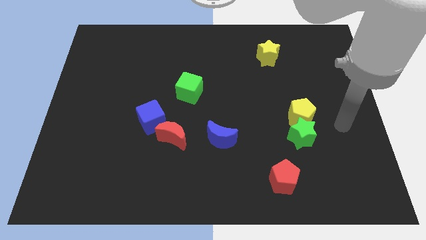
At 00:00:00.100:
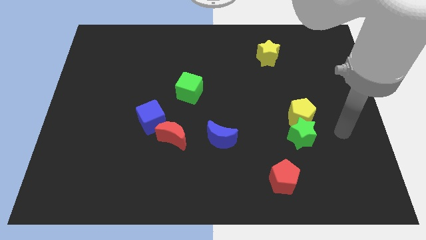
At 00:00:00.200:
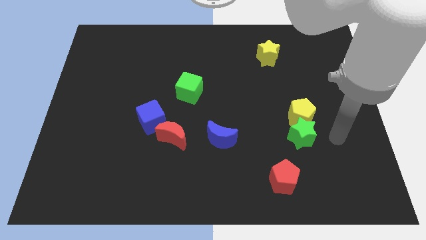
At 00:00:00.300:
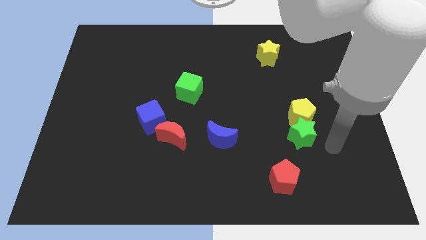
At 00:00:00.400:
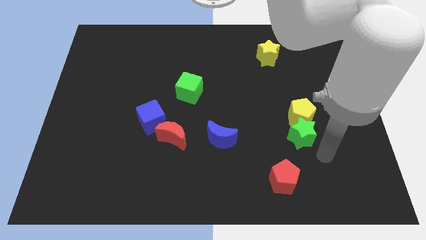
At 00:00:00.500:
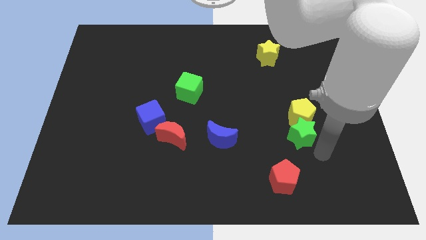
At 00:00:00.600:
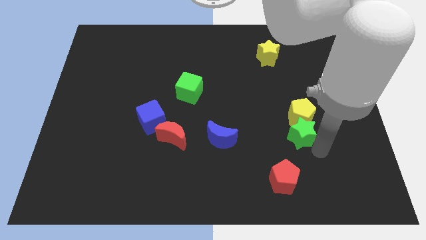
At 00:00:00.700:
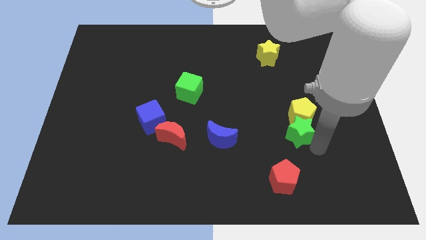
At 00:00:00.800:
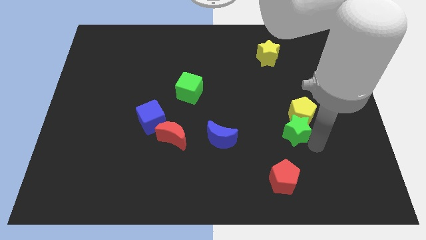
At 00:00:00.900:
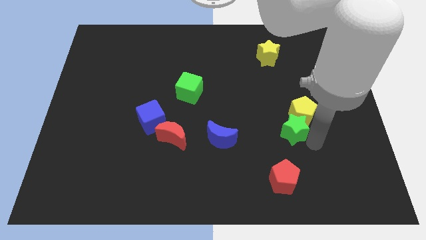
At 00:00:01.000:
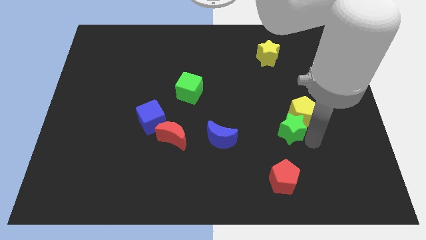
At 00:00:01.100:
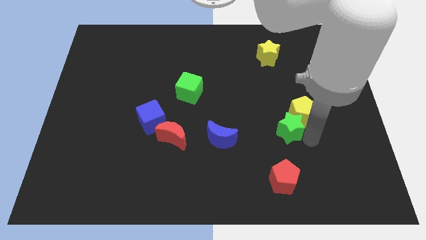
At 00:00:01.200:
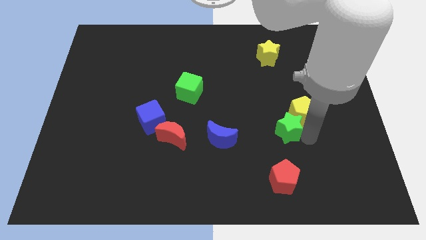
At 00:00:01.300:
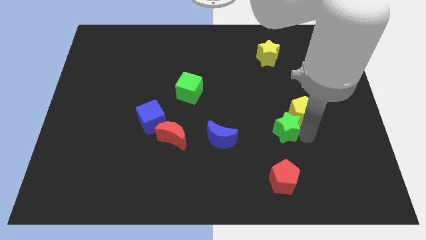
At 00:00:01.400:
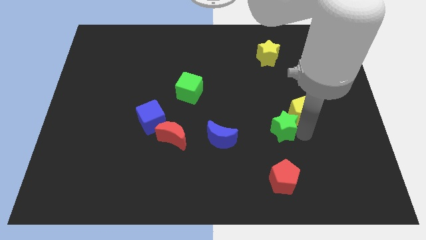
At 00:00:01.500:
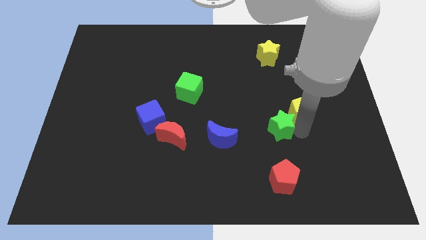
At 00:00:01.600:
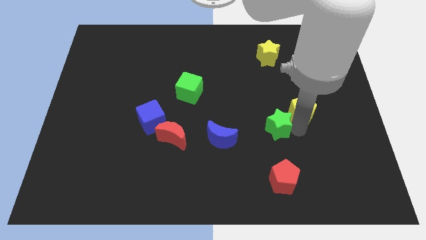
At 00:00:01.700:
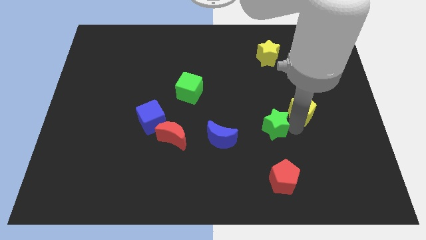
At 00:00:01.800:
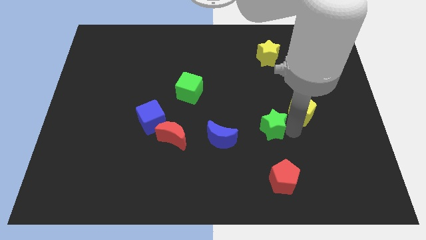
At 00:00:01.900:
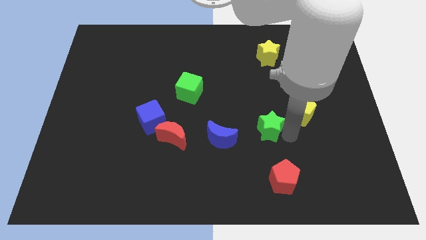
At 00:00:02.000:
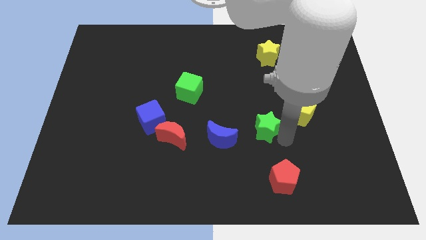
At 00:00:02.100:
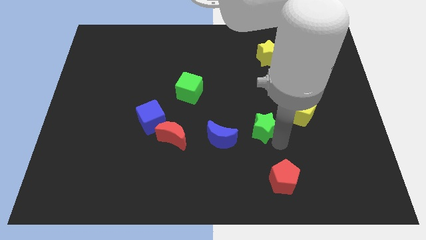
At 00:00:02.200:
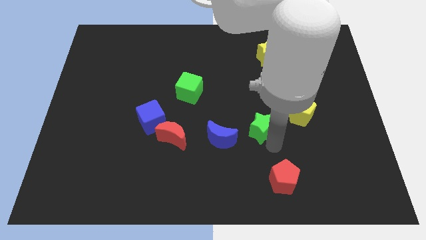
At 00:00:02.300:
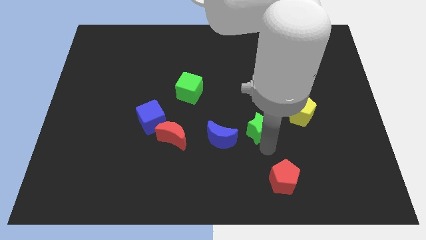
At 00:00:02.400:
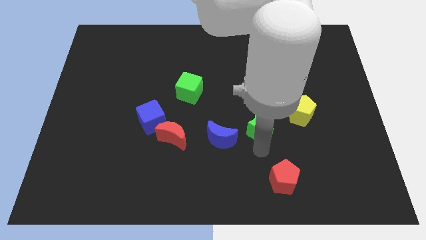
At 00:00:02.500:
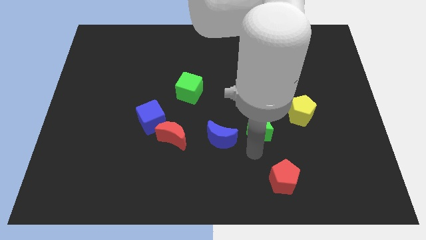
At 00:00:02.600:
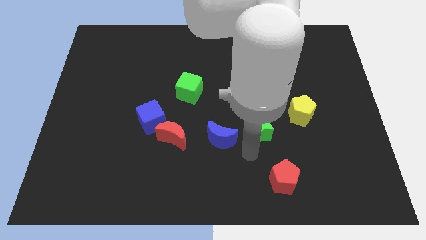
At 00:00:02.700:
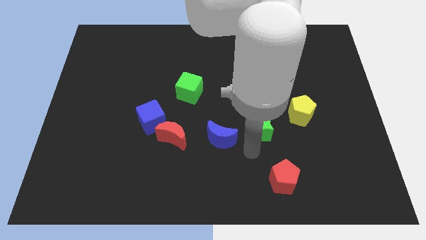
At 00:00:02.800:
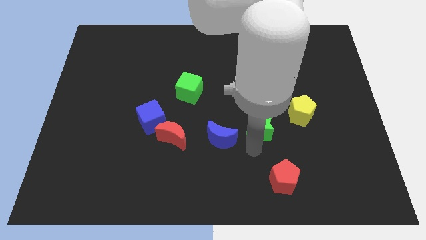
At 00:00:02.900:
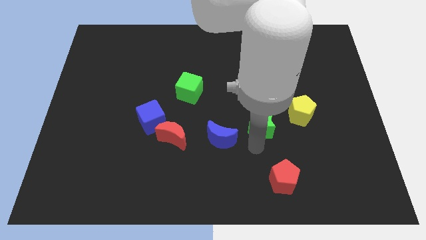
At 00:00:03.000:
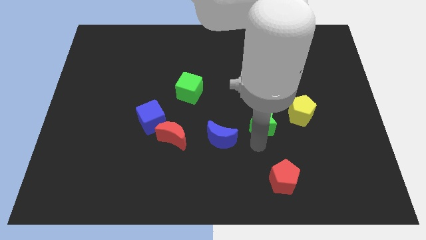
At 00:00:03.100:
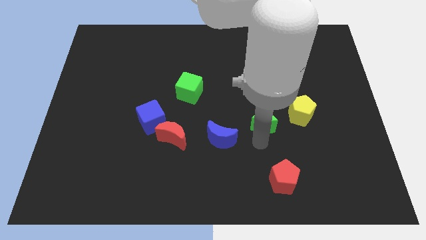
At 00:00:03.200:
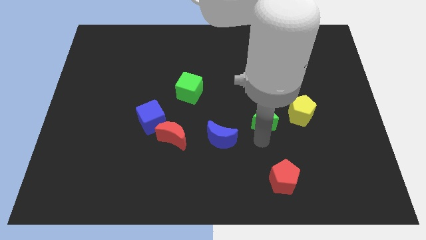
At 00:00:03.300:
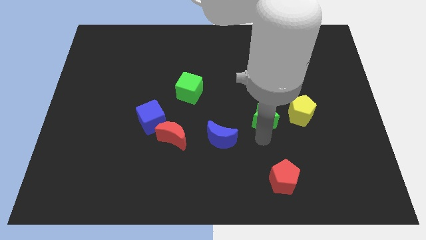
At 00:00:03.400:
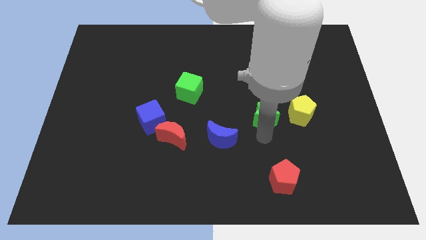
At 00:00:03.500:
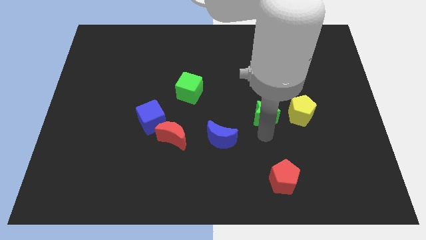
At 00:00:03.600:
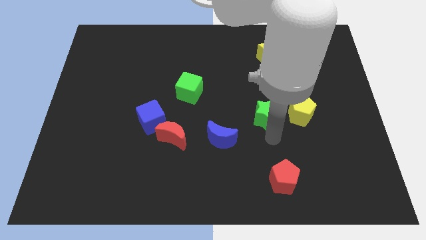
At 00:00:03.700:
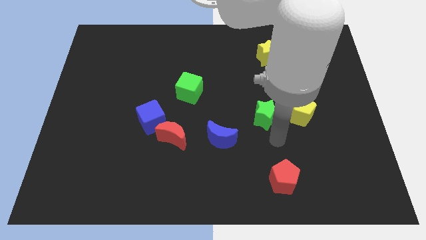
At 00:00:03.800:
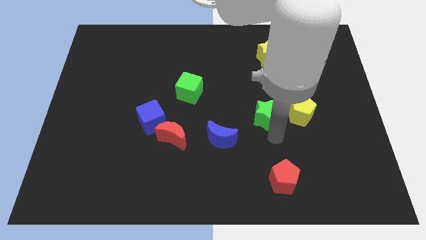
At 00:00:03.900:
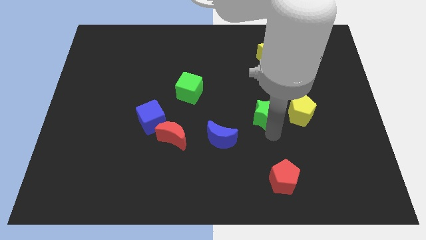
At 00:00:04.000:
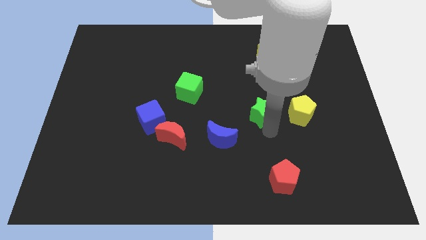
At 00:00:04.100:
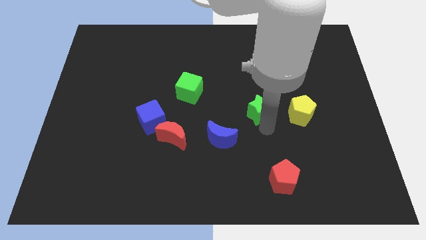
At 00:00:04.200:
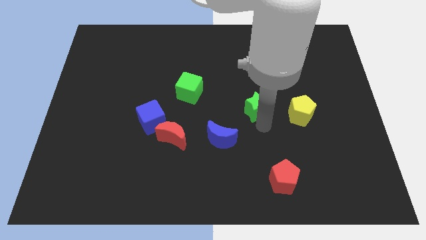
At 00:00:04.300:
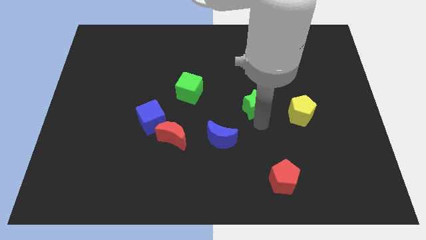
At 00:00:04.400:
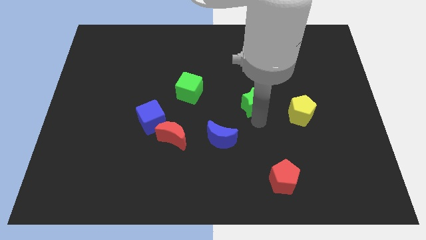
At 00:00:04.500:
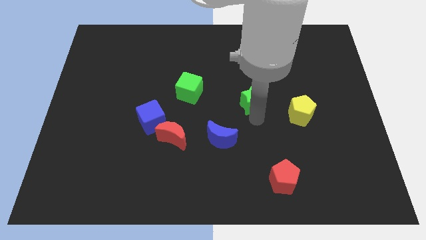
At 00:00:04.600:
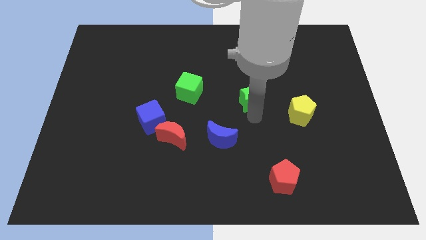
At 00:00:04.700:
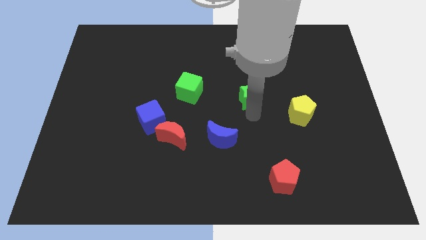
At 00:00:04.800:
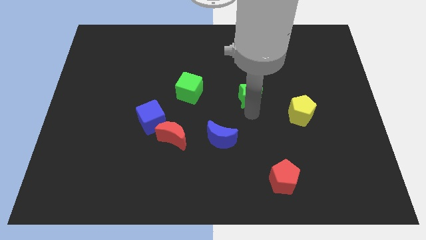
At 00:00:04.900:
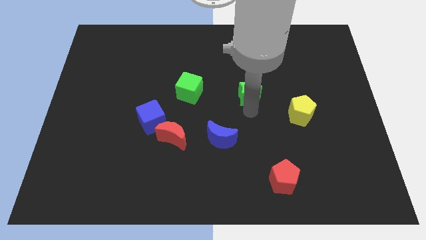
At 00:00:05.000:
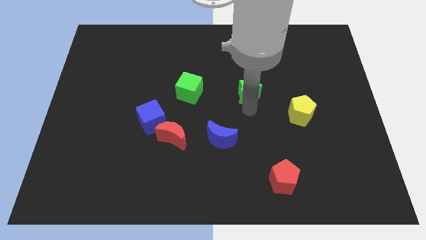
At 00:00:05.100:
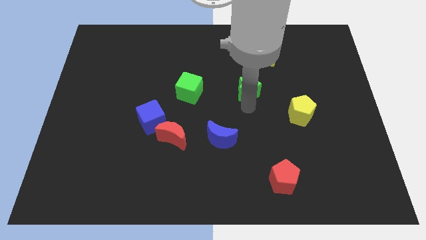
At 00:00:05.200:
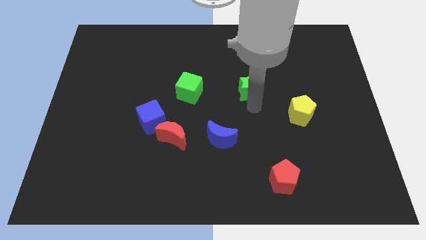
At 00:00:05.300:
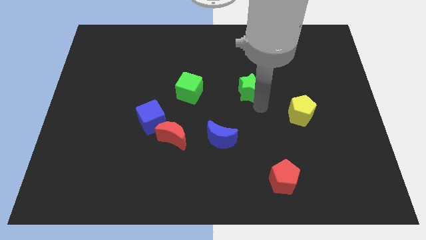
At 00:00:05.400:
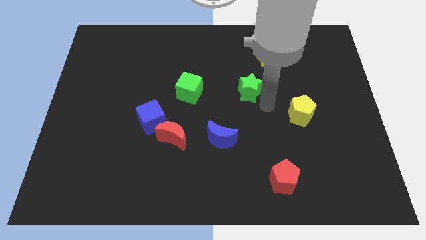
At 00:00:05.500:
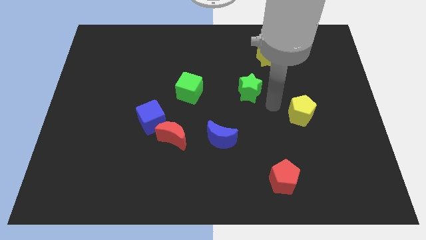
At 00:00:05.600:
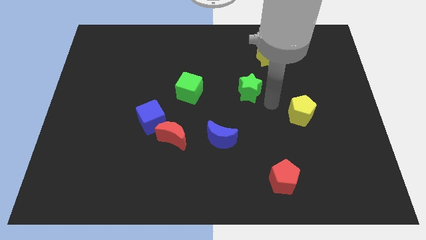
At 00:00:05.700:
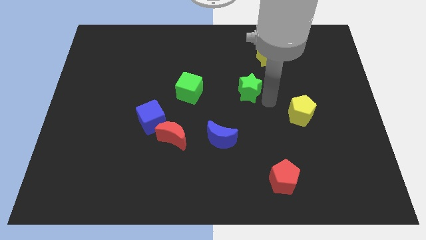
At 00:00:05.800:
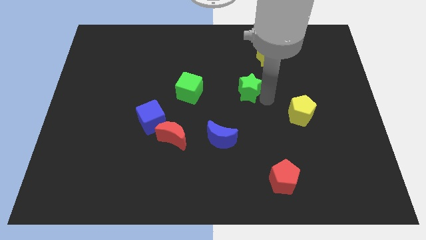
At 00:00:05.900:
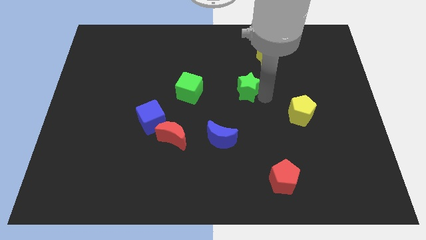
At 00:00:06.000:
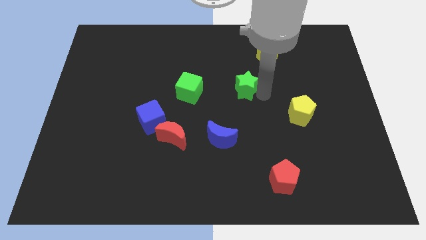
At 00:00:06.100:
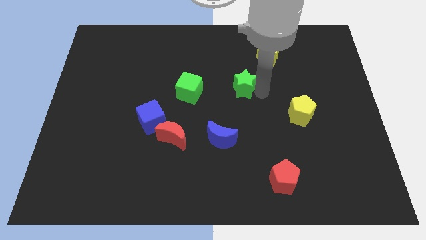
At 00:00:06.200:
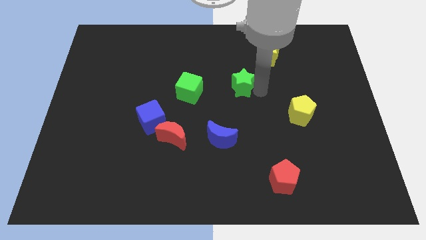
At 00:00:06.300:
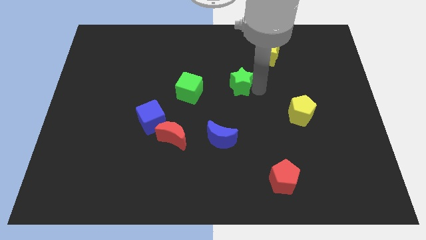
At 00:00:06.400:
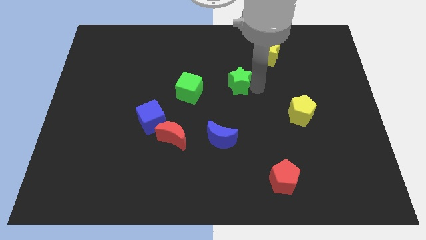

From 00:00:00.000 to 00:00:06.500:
move the green star upwards and then to the left

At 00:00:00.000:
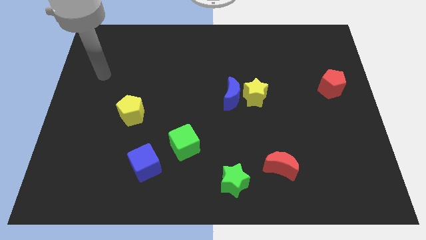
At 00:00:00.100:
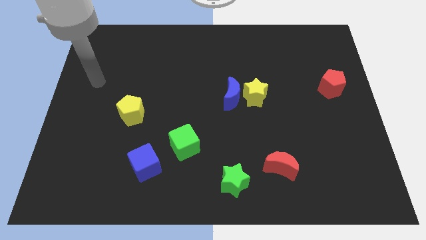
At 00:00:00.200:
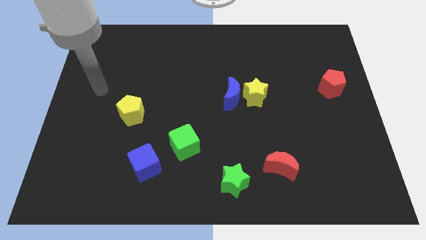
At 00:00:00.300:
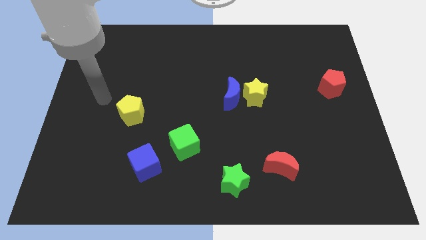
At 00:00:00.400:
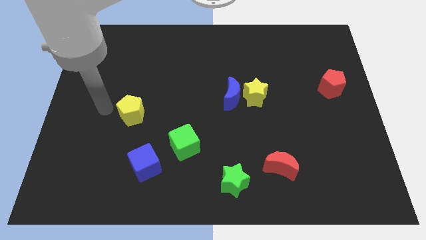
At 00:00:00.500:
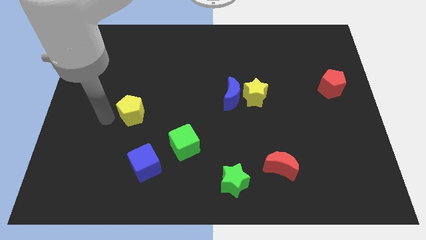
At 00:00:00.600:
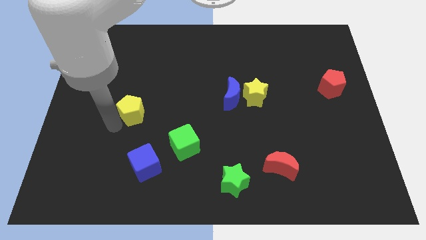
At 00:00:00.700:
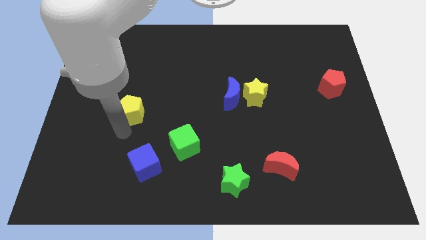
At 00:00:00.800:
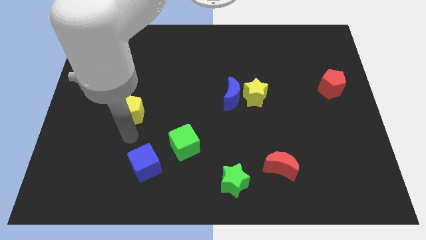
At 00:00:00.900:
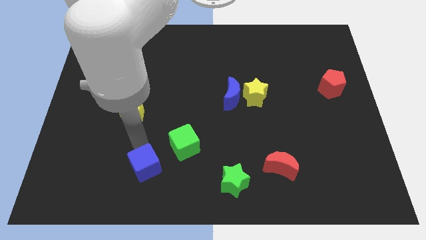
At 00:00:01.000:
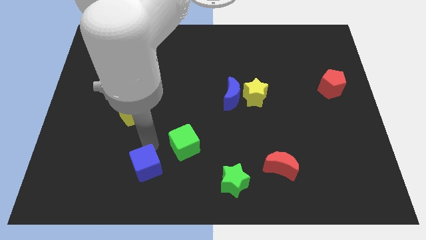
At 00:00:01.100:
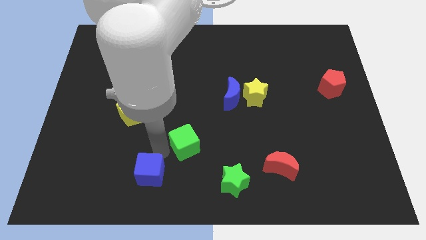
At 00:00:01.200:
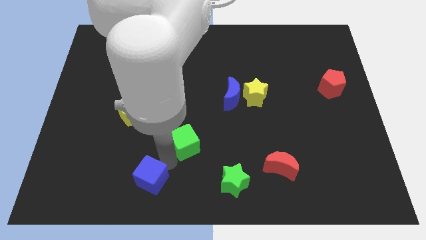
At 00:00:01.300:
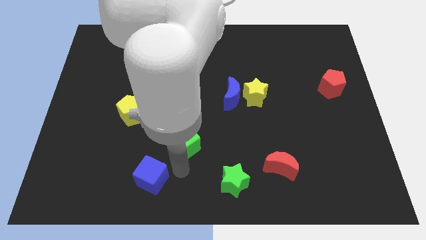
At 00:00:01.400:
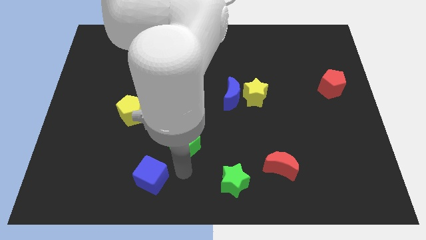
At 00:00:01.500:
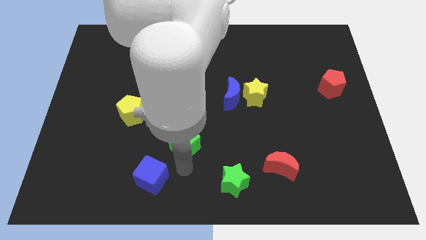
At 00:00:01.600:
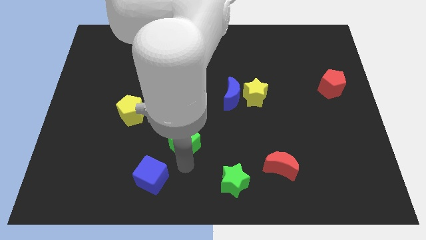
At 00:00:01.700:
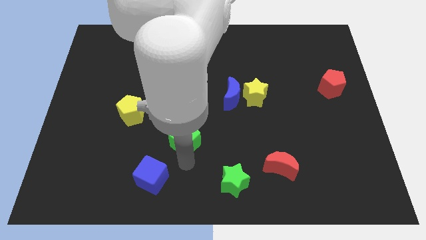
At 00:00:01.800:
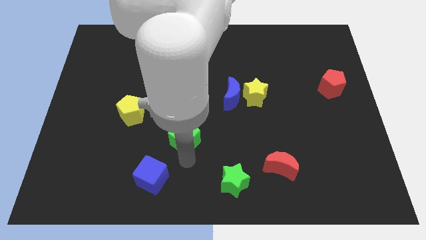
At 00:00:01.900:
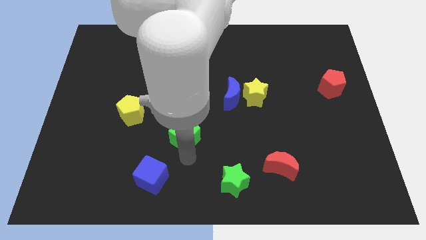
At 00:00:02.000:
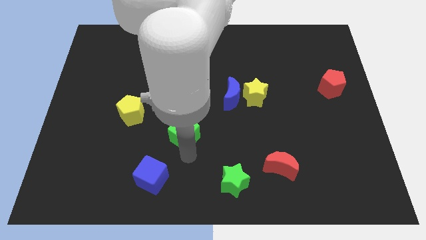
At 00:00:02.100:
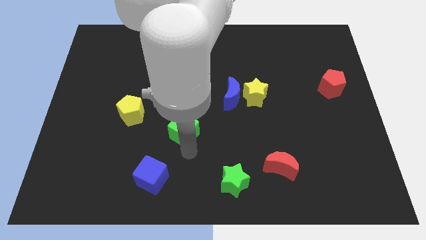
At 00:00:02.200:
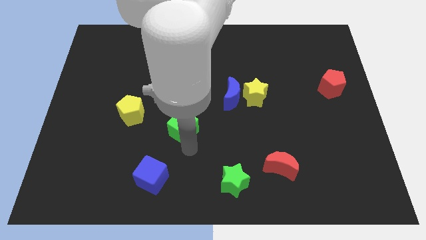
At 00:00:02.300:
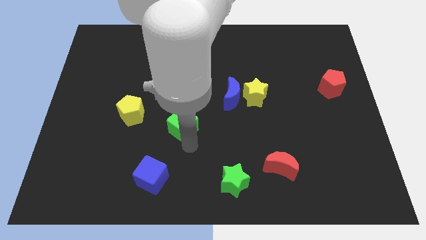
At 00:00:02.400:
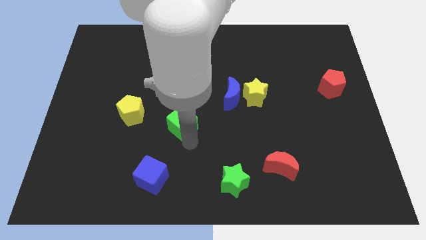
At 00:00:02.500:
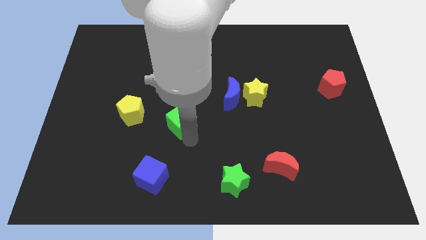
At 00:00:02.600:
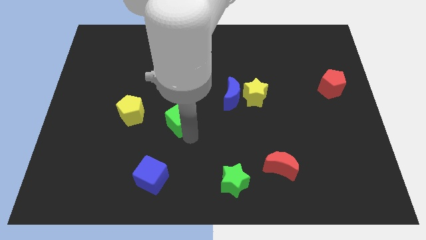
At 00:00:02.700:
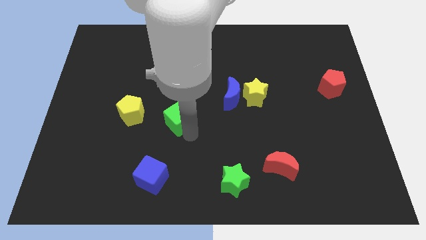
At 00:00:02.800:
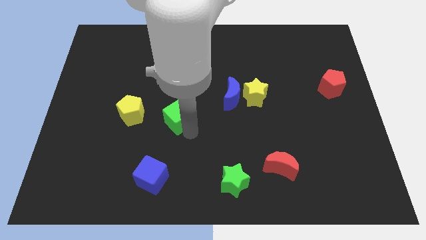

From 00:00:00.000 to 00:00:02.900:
push the green cube up a bit
